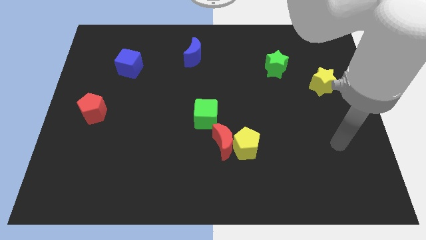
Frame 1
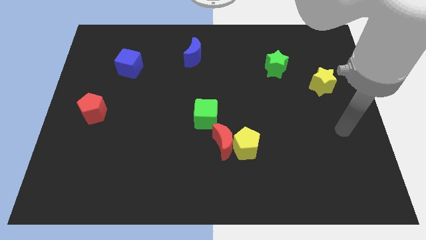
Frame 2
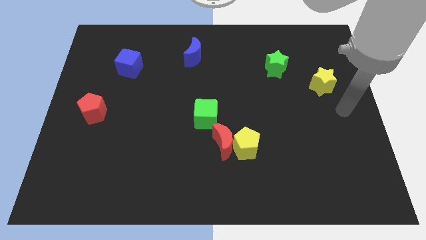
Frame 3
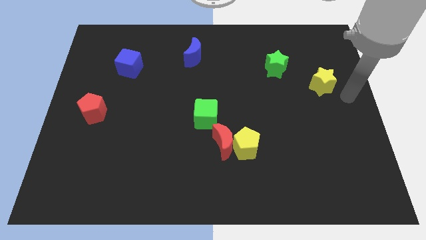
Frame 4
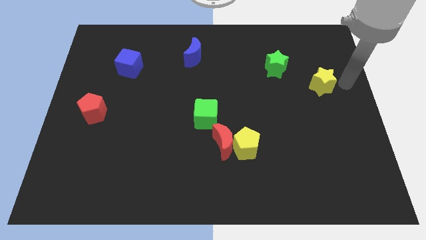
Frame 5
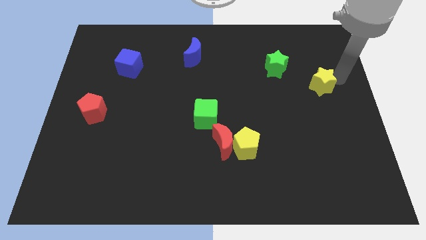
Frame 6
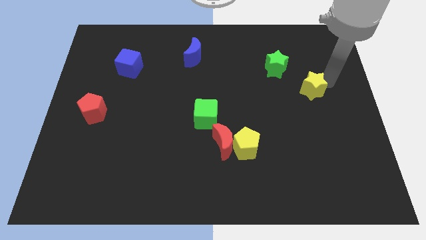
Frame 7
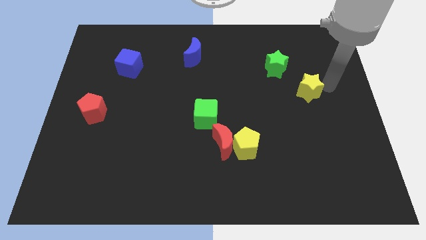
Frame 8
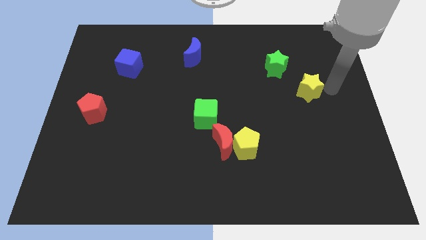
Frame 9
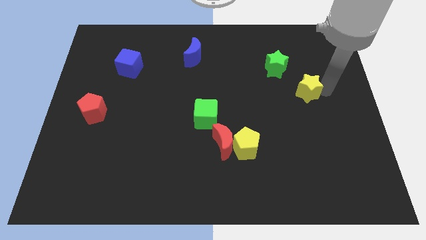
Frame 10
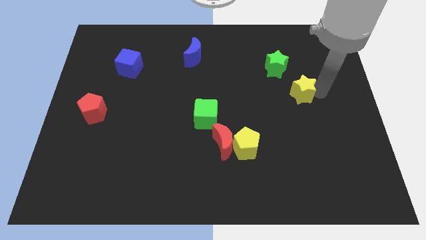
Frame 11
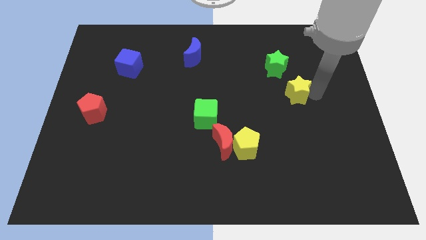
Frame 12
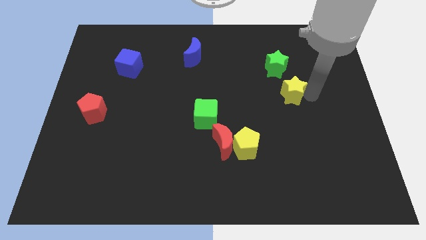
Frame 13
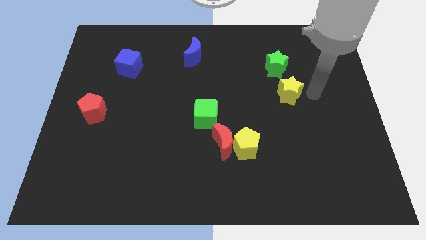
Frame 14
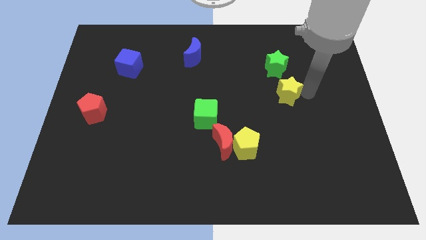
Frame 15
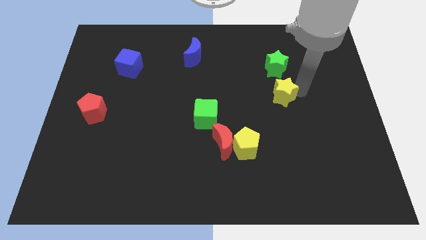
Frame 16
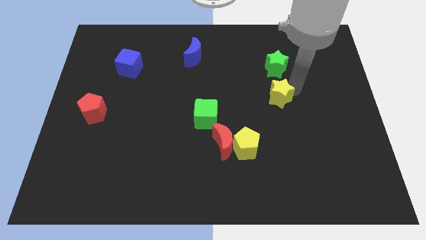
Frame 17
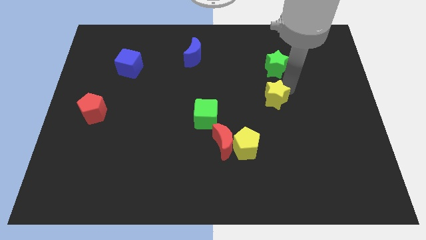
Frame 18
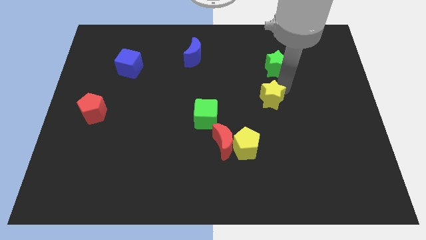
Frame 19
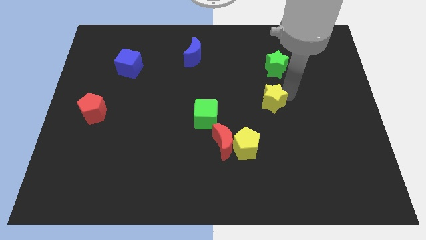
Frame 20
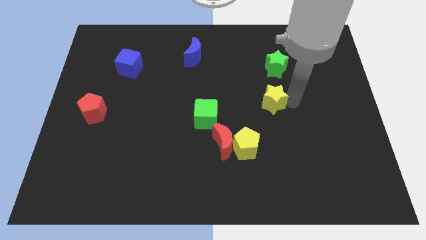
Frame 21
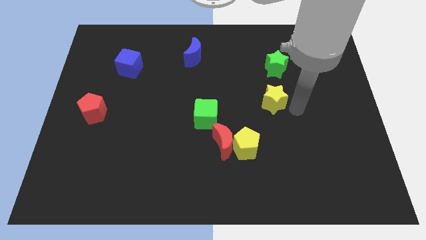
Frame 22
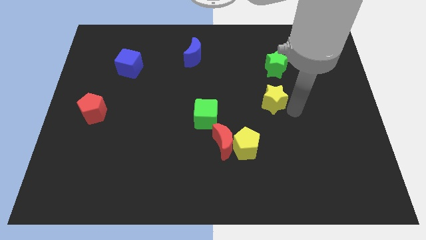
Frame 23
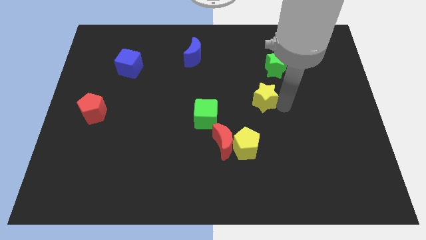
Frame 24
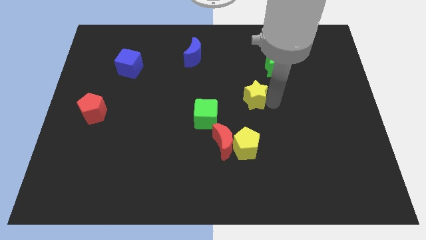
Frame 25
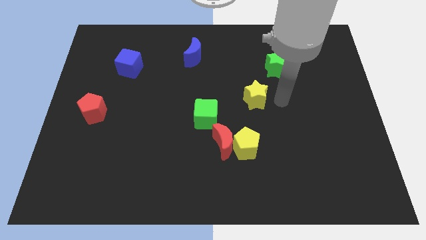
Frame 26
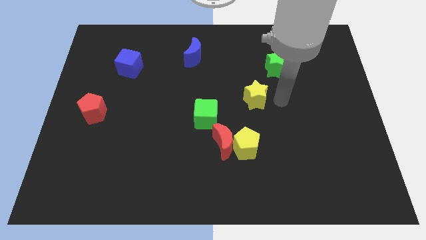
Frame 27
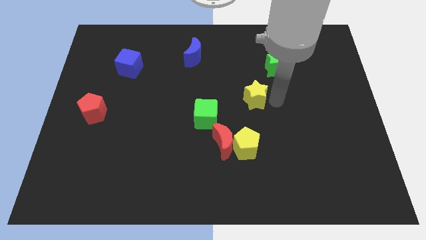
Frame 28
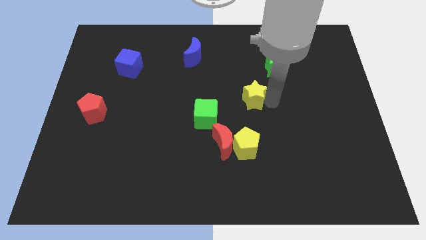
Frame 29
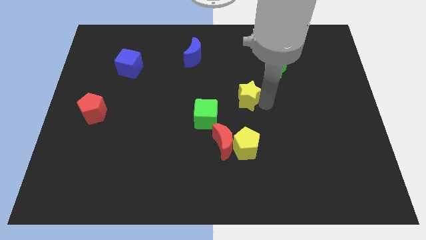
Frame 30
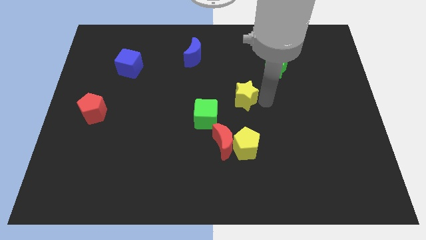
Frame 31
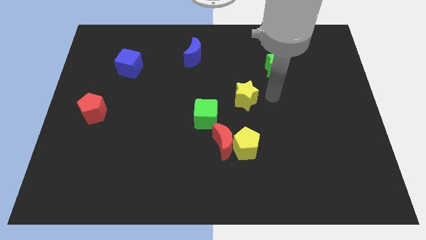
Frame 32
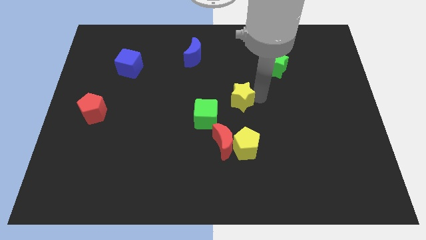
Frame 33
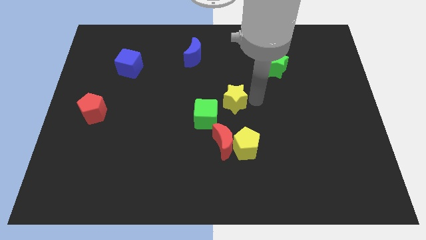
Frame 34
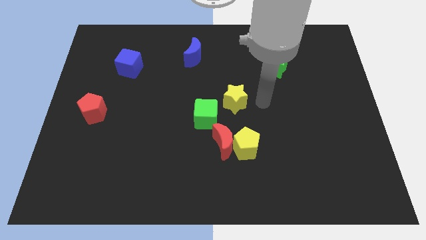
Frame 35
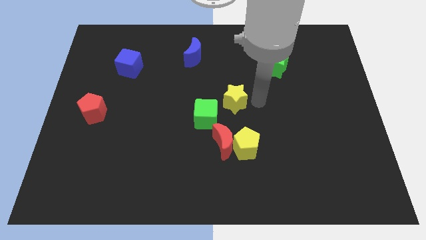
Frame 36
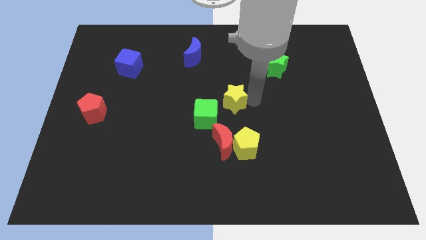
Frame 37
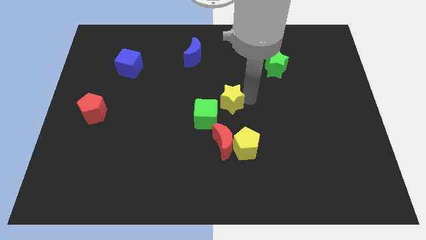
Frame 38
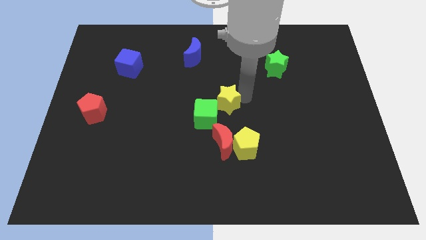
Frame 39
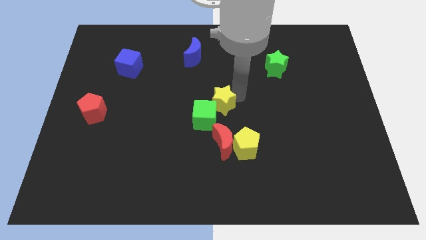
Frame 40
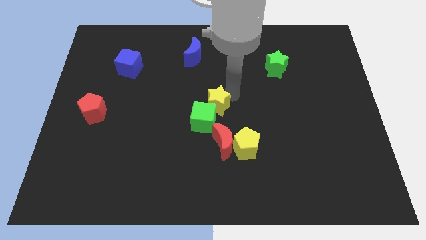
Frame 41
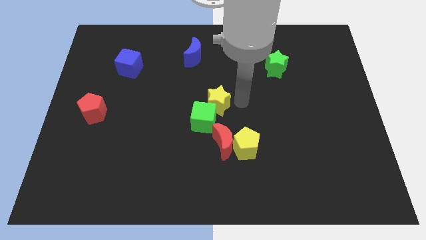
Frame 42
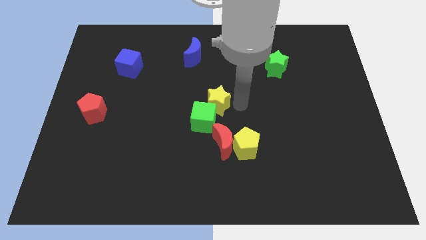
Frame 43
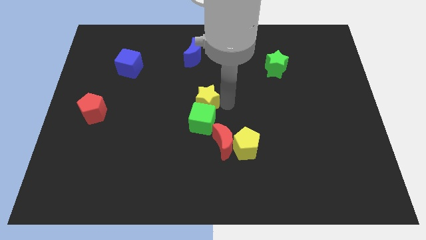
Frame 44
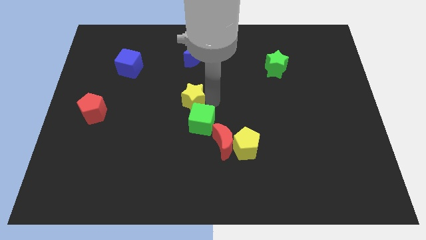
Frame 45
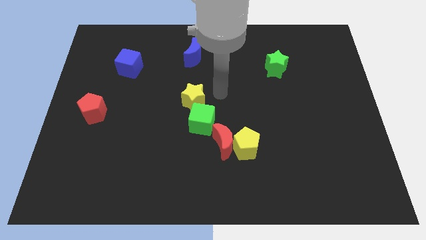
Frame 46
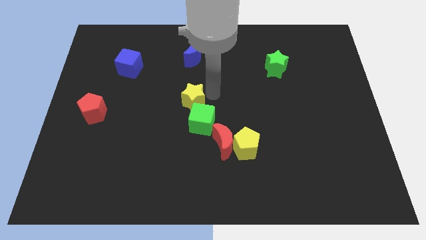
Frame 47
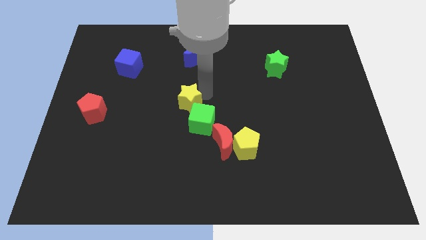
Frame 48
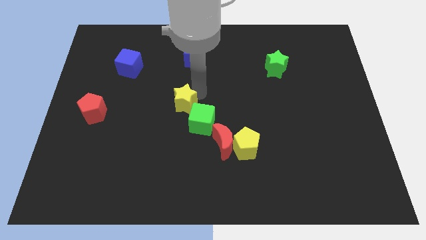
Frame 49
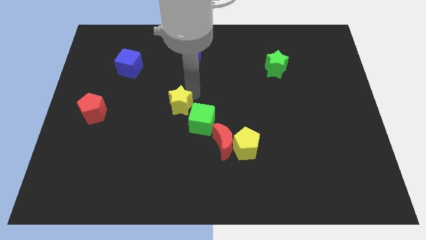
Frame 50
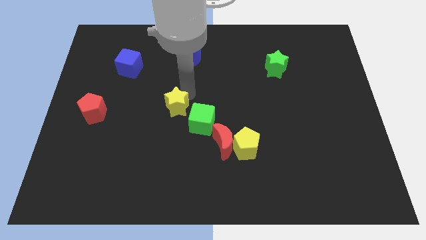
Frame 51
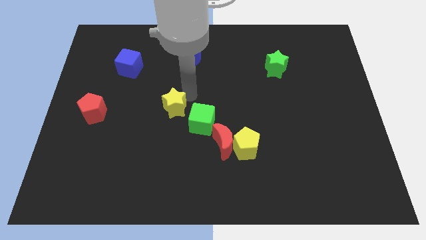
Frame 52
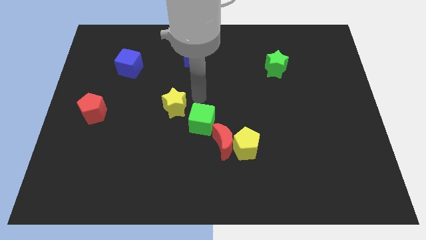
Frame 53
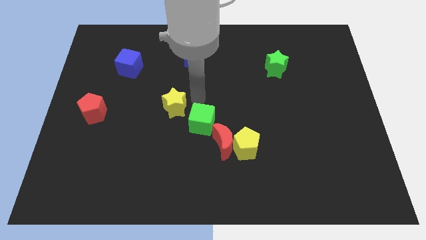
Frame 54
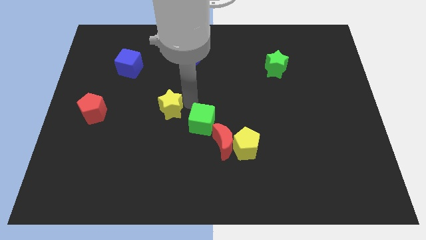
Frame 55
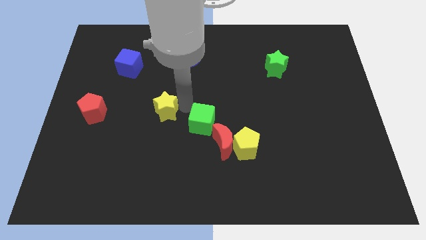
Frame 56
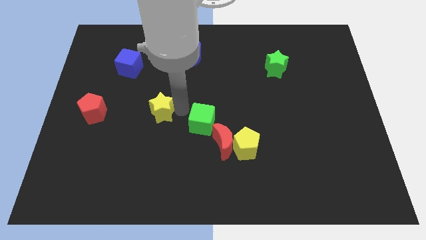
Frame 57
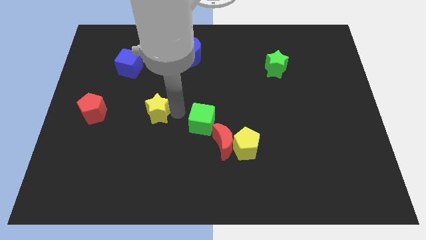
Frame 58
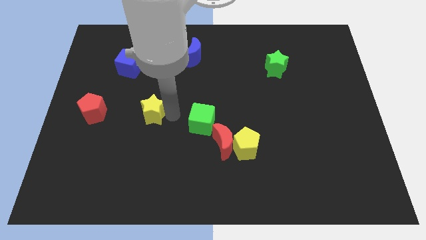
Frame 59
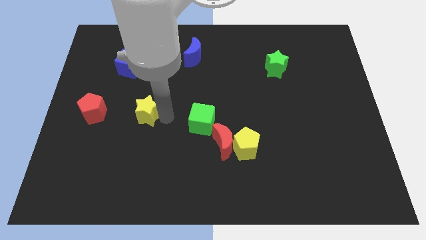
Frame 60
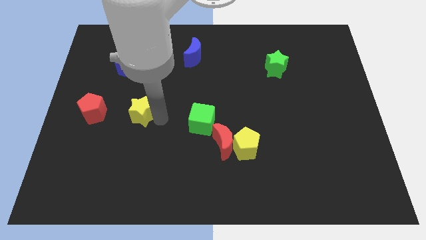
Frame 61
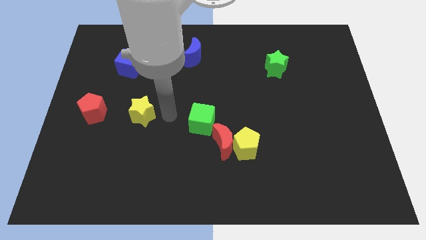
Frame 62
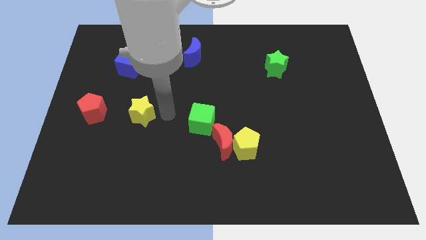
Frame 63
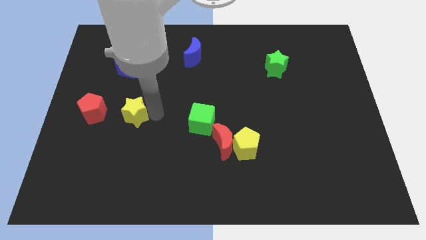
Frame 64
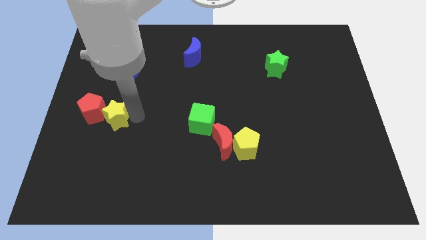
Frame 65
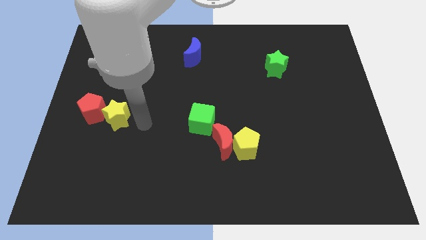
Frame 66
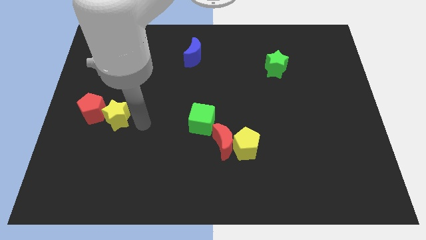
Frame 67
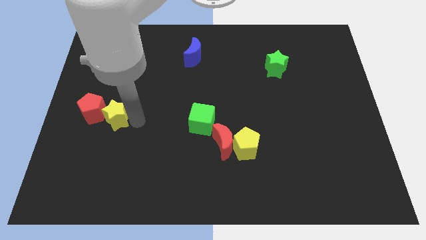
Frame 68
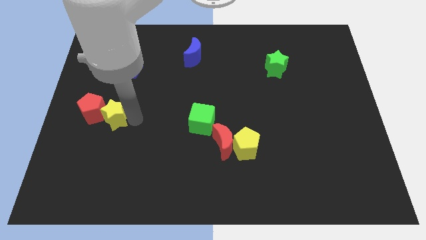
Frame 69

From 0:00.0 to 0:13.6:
push the yellow star close to the red pentagon

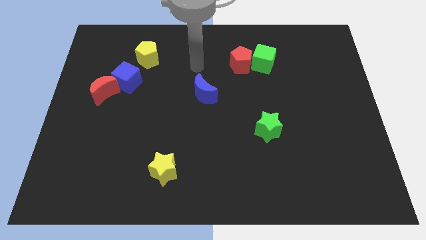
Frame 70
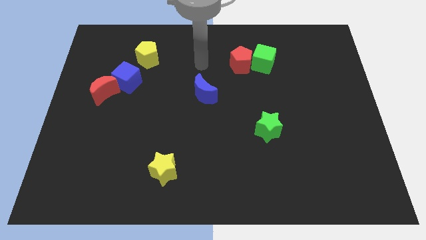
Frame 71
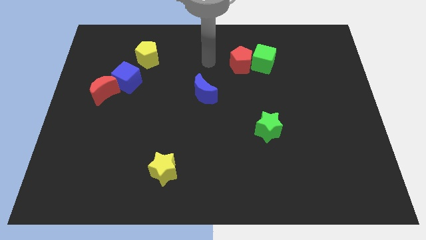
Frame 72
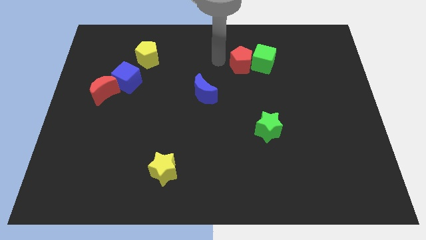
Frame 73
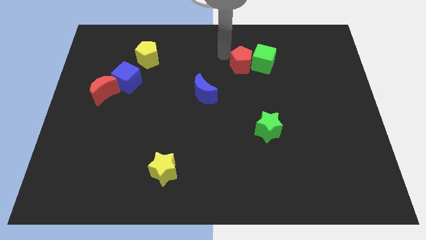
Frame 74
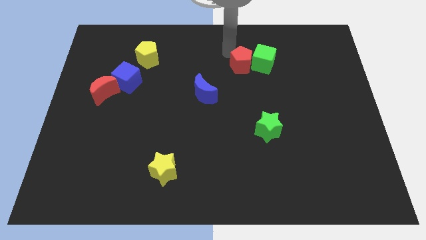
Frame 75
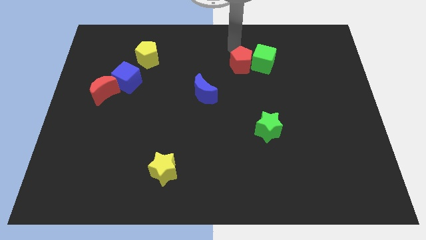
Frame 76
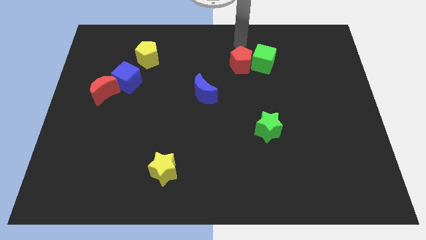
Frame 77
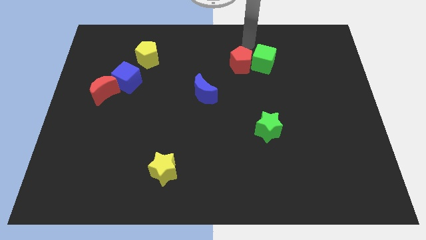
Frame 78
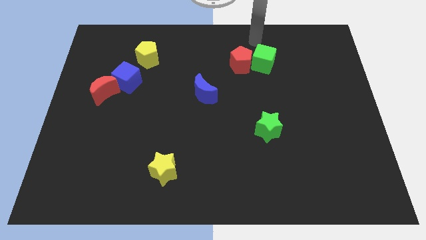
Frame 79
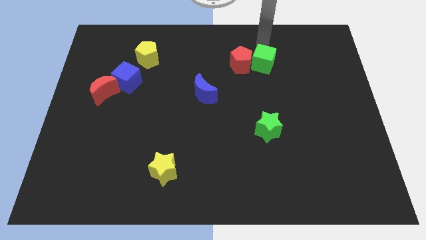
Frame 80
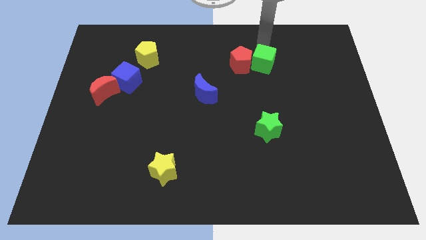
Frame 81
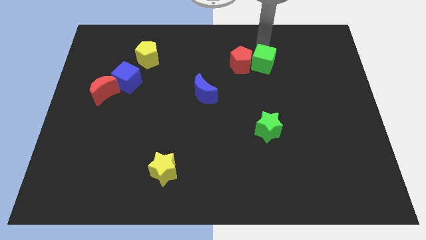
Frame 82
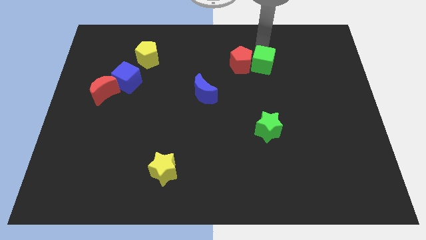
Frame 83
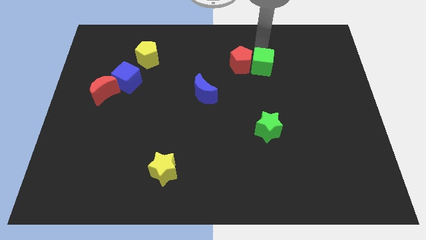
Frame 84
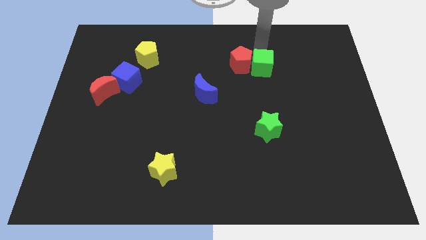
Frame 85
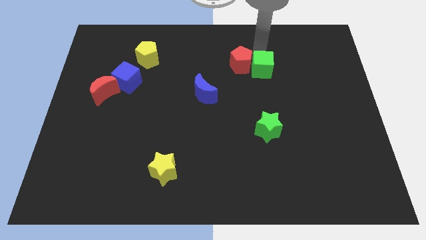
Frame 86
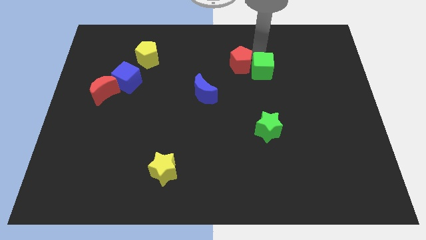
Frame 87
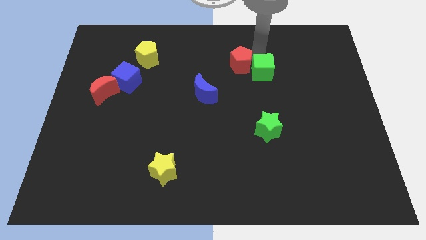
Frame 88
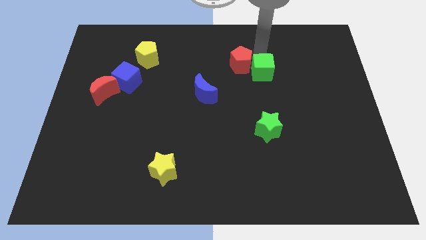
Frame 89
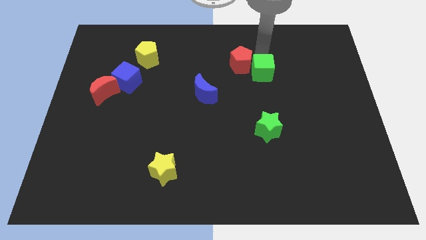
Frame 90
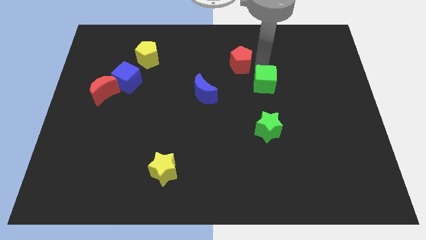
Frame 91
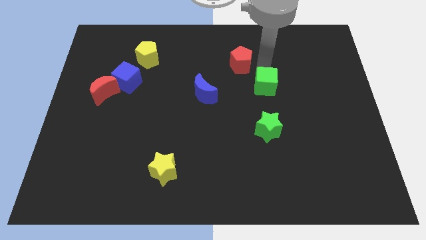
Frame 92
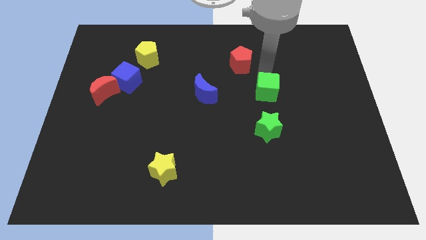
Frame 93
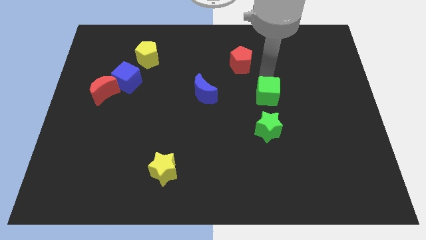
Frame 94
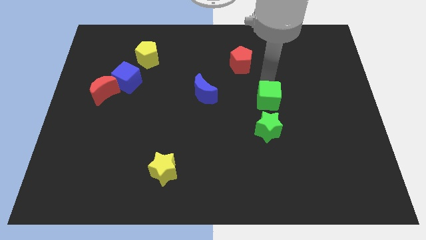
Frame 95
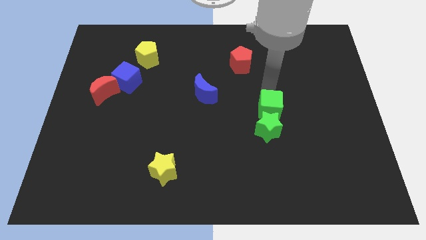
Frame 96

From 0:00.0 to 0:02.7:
move the green cube close to the green star
